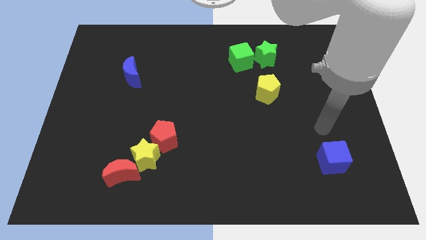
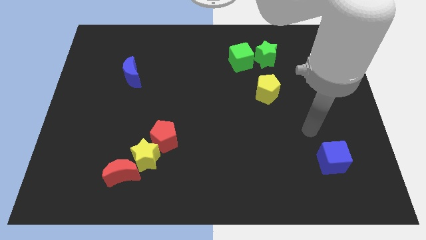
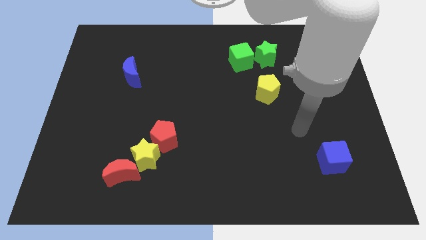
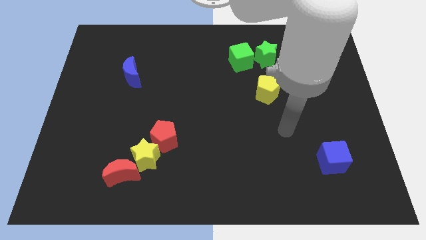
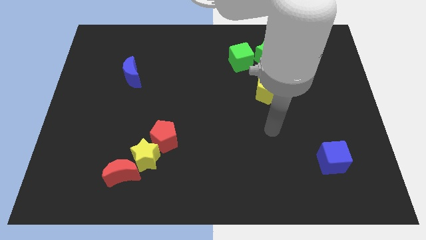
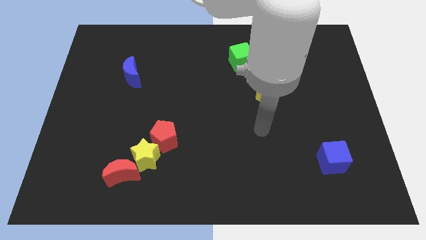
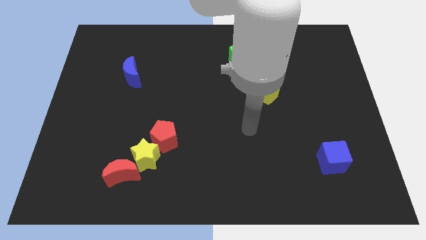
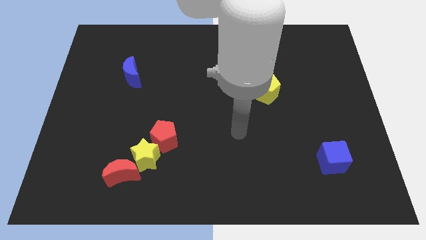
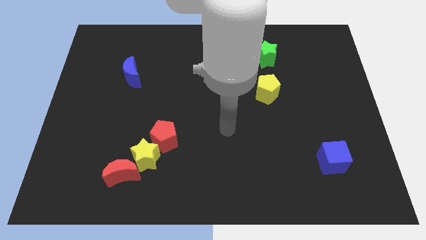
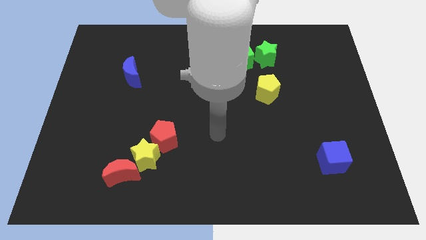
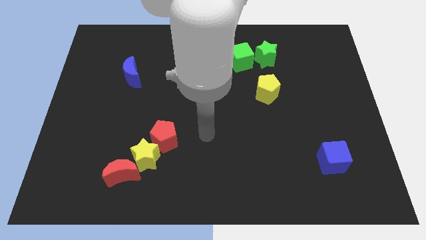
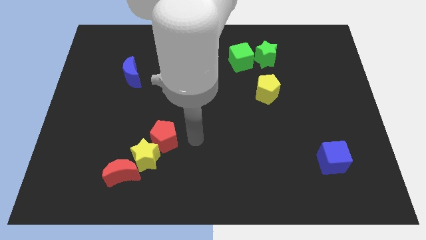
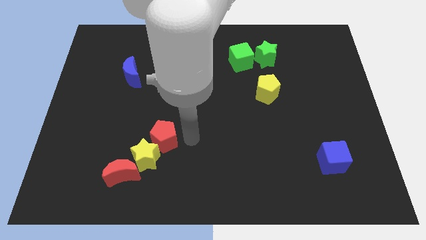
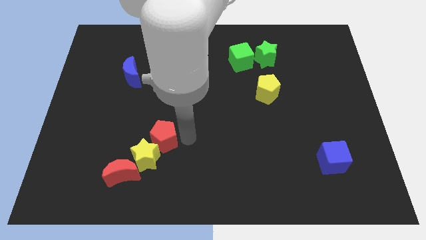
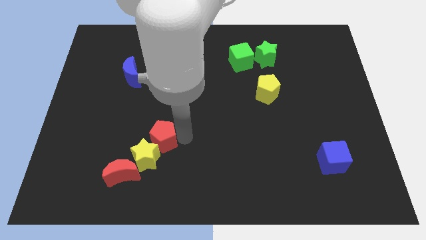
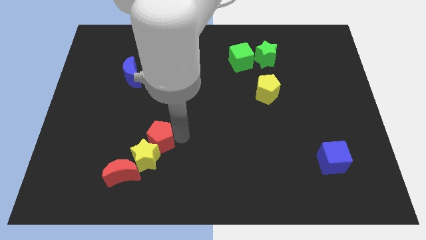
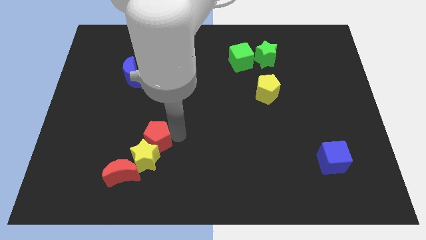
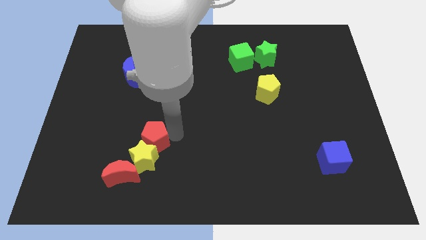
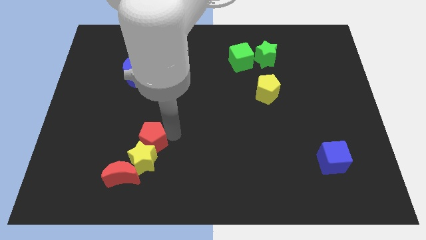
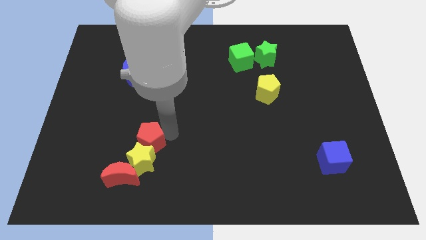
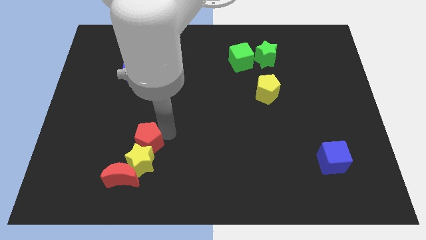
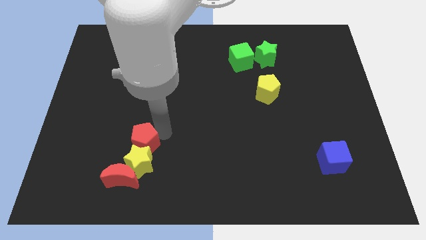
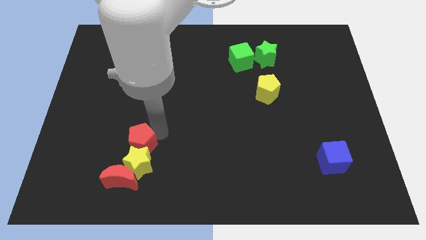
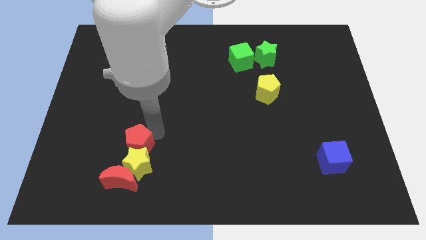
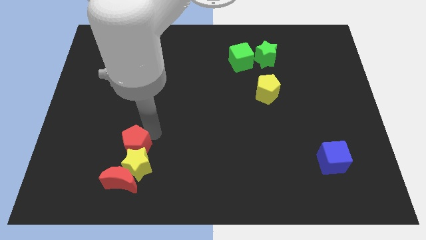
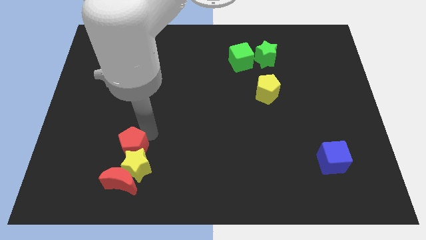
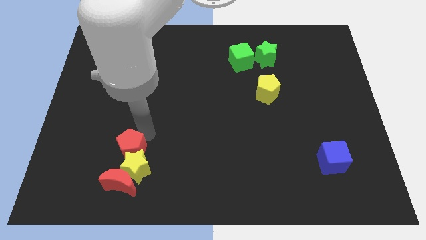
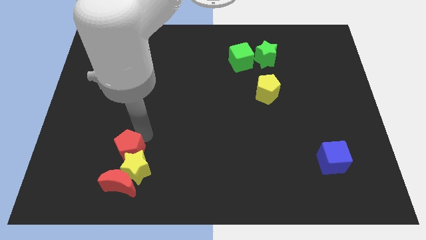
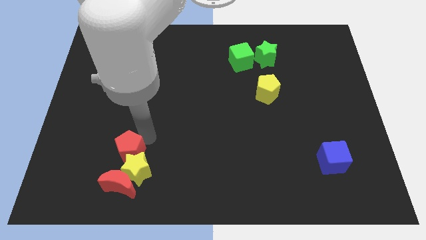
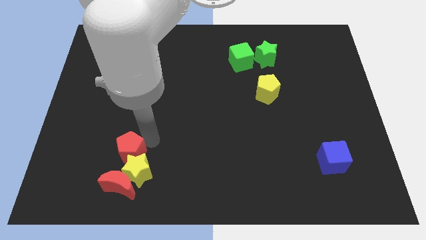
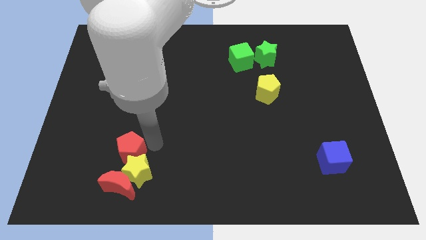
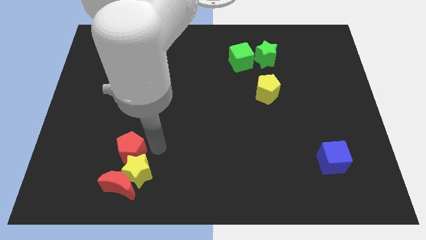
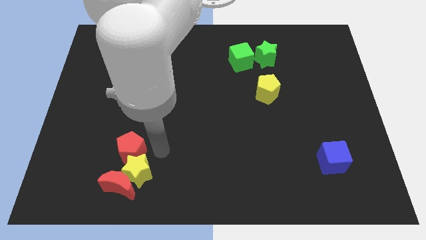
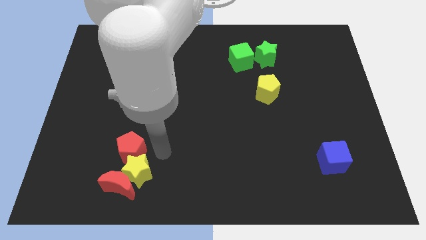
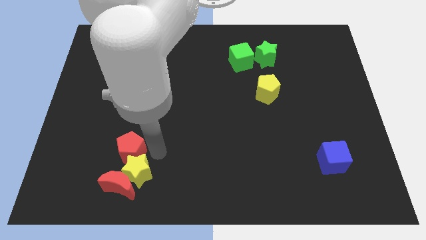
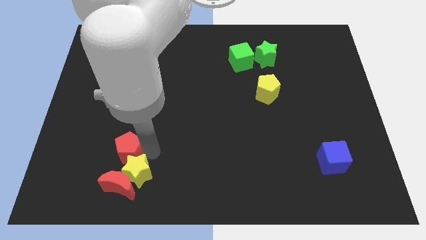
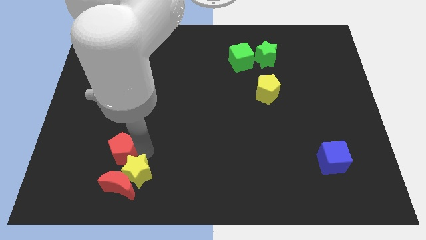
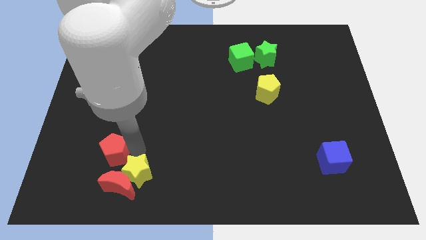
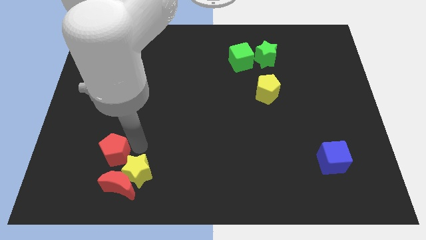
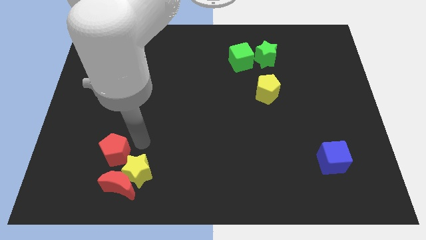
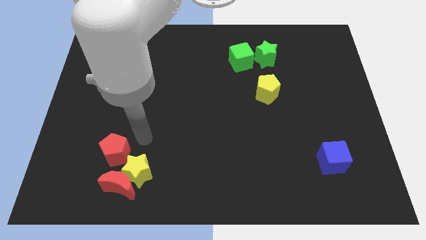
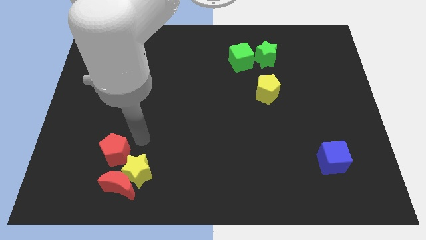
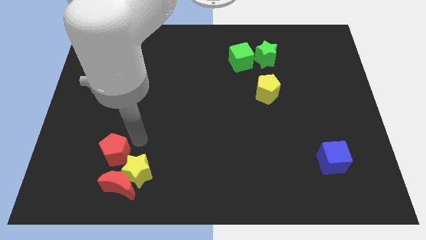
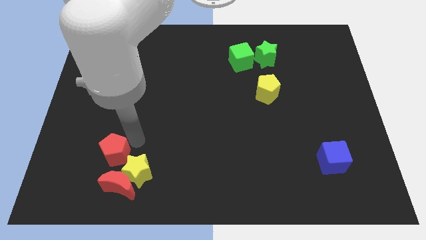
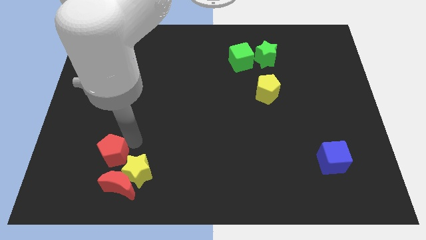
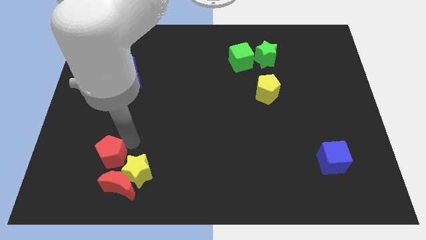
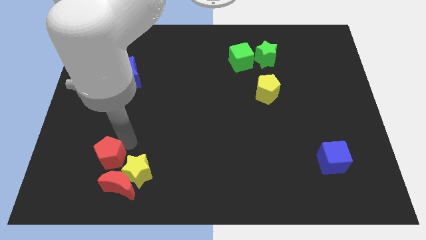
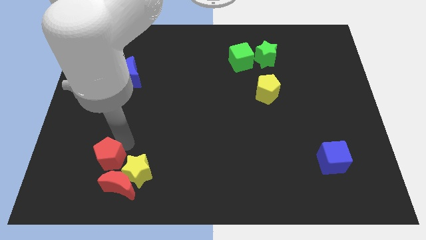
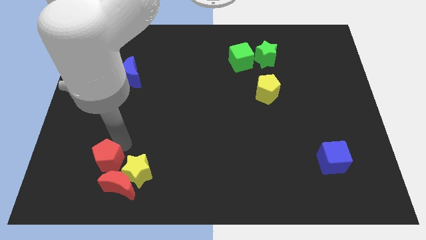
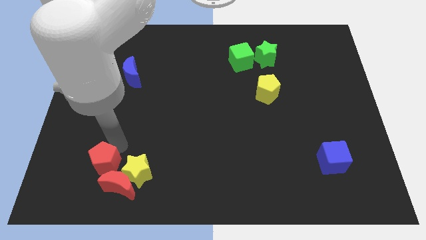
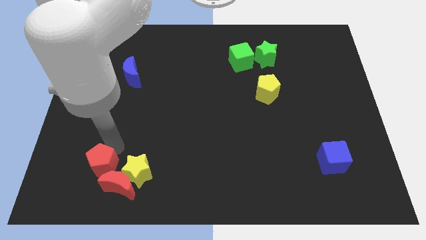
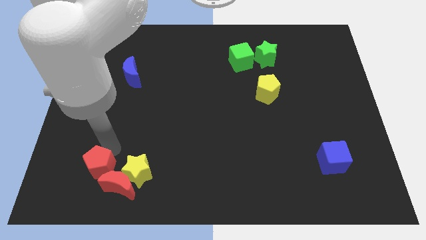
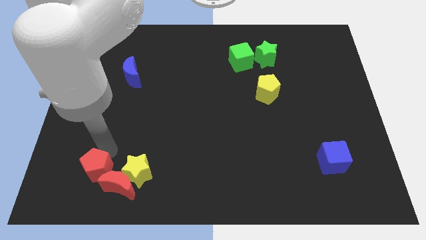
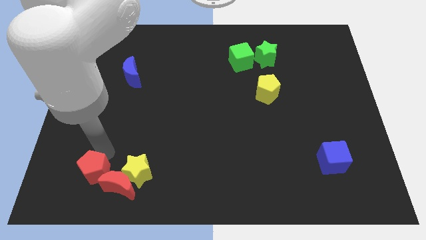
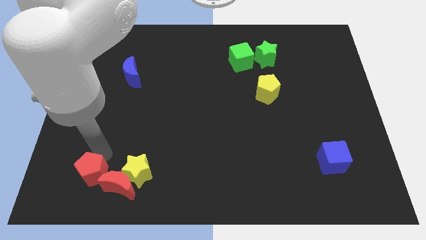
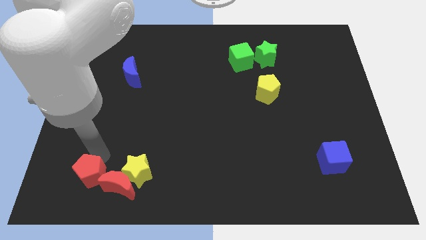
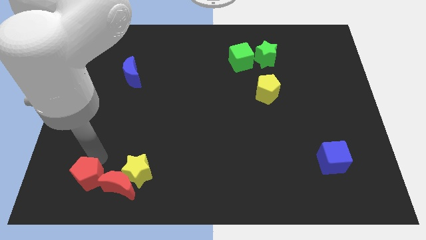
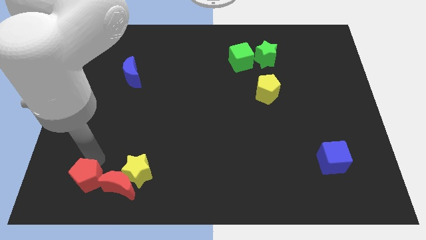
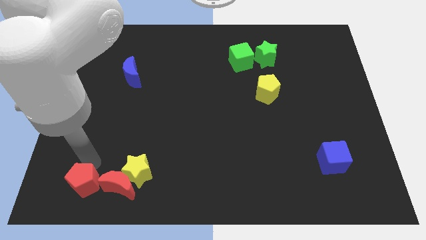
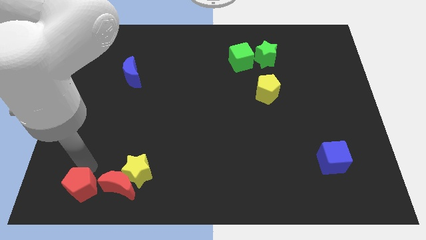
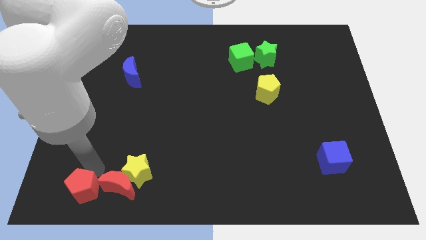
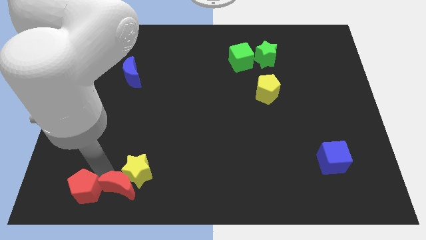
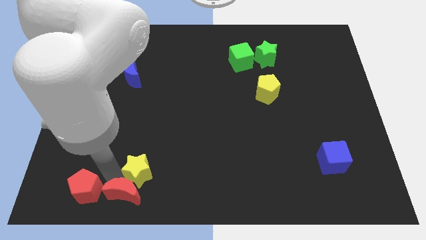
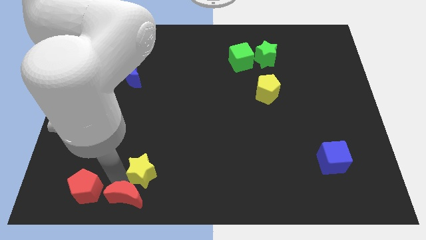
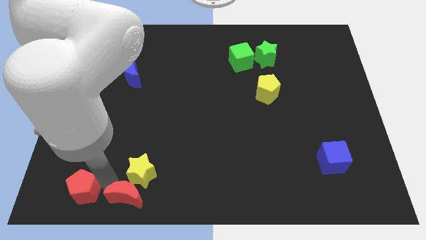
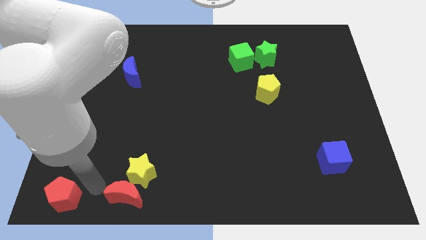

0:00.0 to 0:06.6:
slide the red pentagon to the lower left corner
